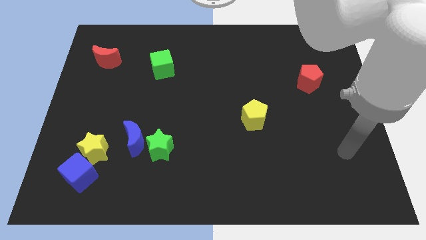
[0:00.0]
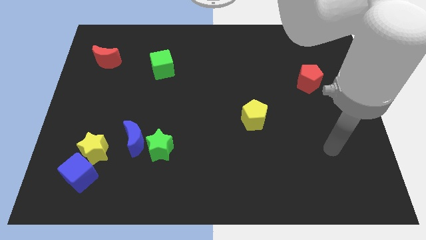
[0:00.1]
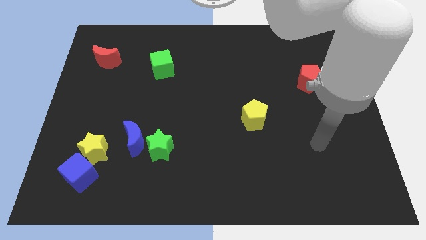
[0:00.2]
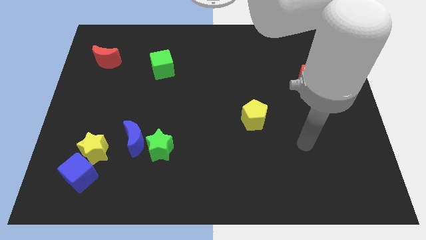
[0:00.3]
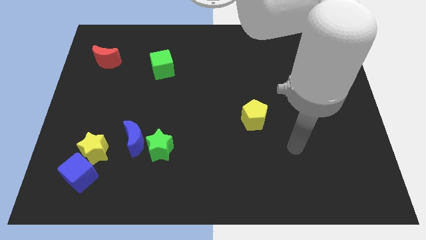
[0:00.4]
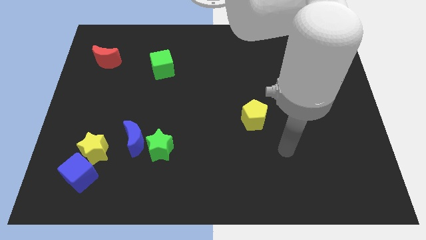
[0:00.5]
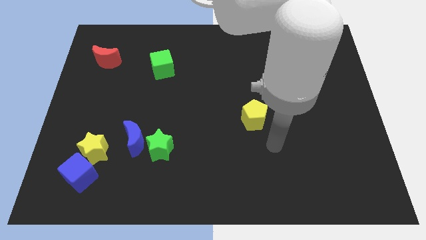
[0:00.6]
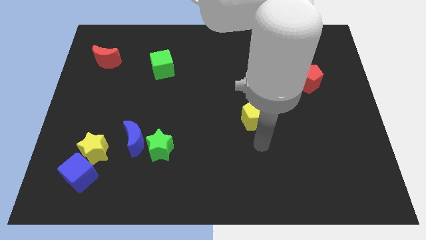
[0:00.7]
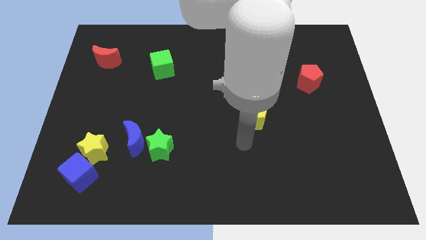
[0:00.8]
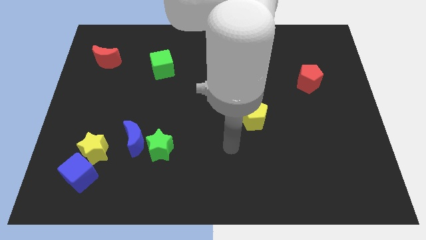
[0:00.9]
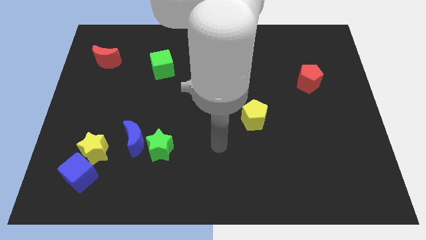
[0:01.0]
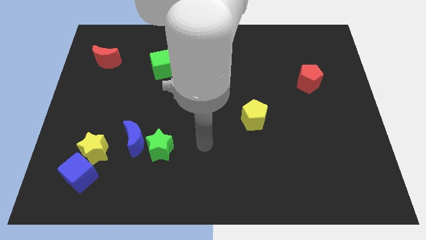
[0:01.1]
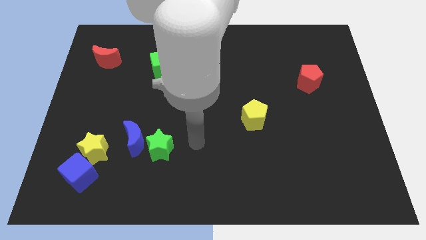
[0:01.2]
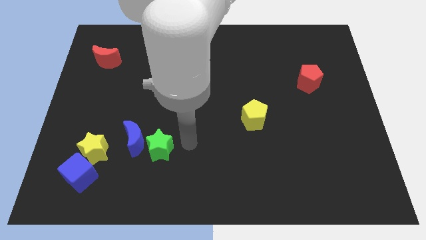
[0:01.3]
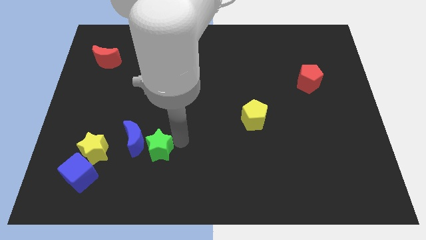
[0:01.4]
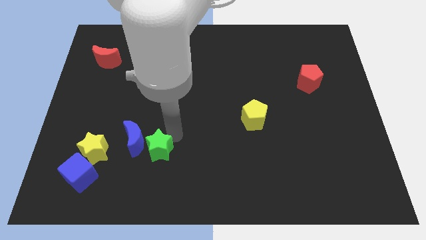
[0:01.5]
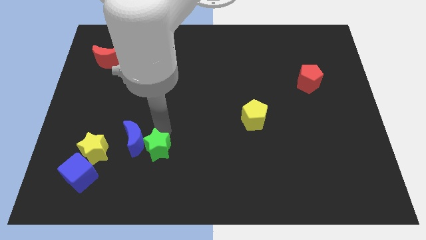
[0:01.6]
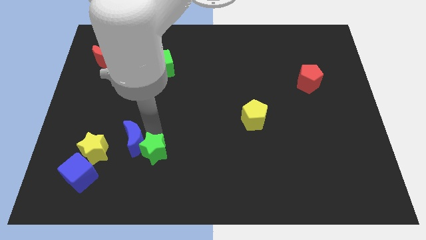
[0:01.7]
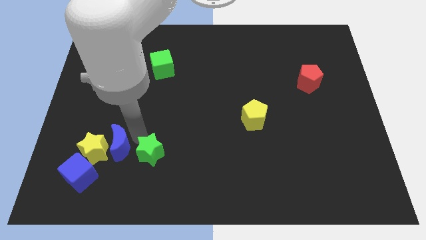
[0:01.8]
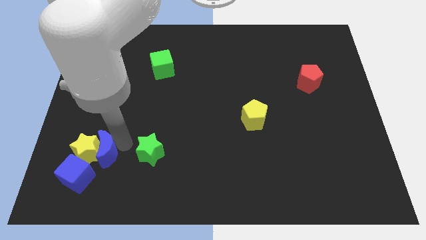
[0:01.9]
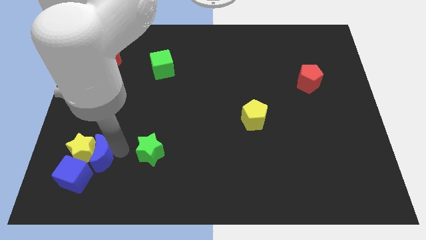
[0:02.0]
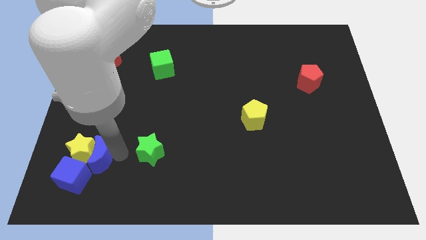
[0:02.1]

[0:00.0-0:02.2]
separate the green star from the blue moon

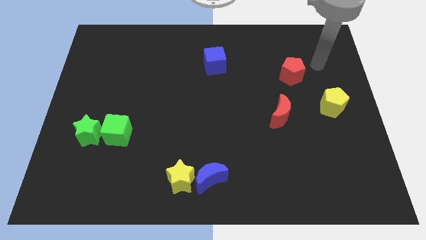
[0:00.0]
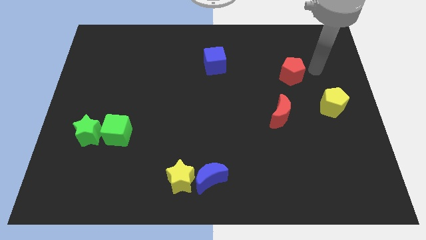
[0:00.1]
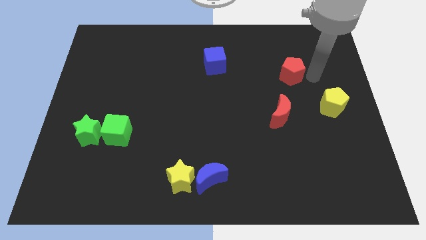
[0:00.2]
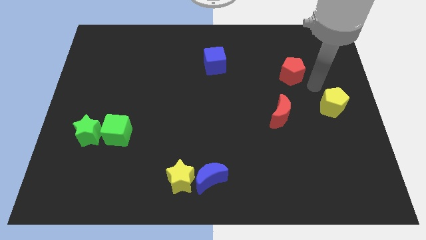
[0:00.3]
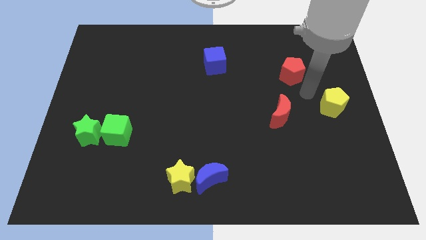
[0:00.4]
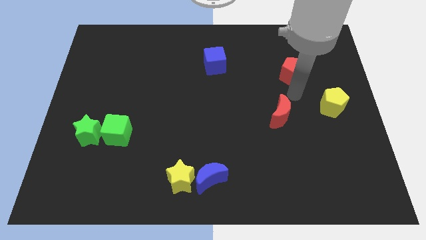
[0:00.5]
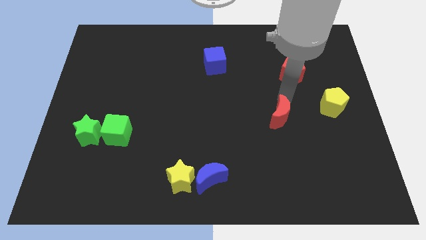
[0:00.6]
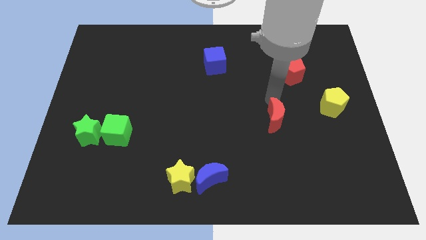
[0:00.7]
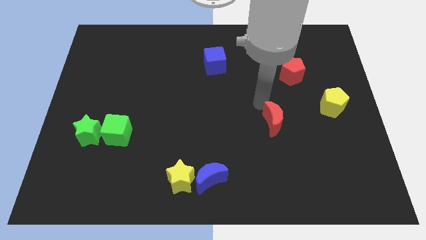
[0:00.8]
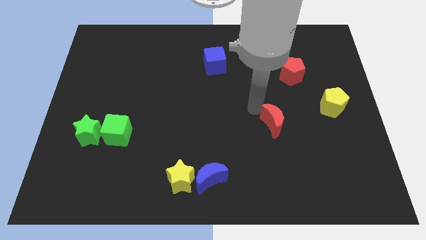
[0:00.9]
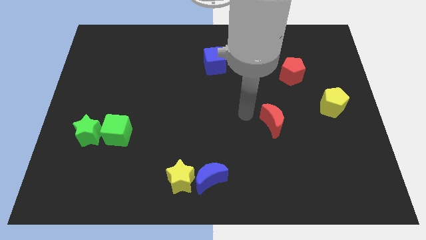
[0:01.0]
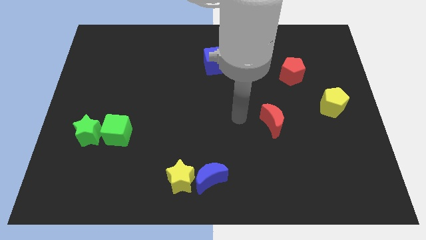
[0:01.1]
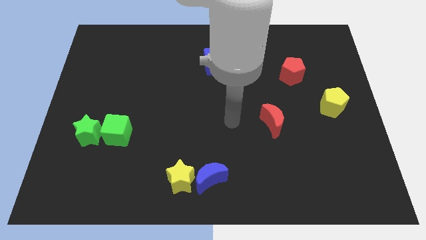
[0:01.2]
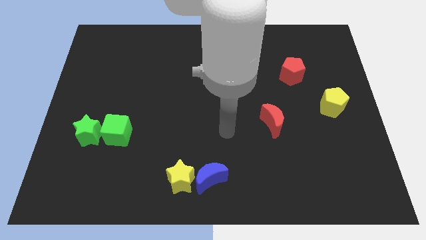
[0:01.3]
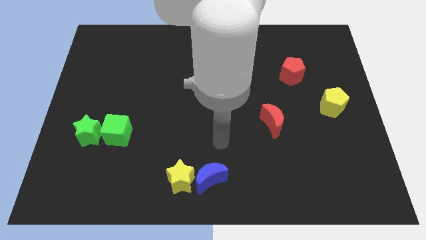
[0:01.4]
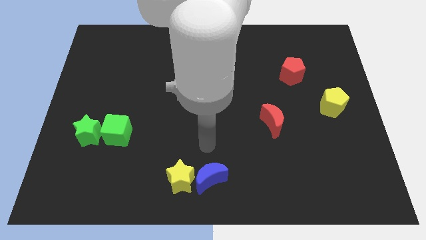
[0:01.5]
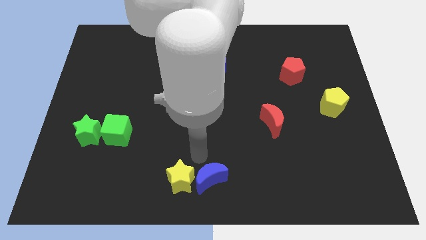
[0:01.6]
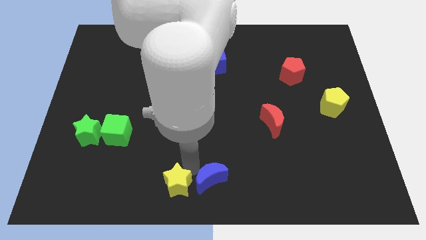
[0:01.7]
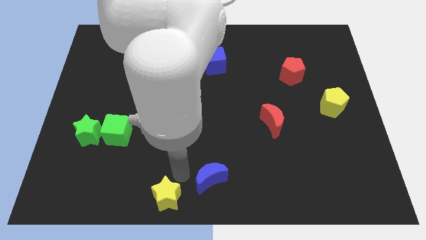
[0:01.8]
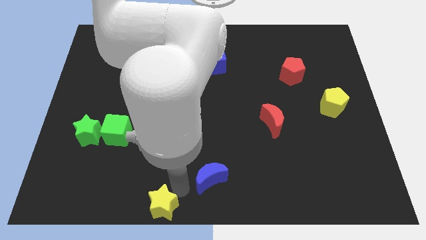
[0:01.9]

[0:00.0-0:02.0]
move the blue moon away from the yellow star

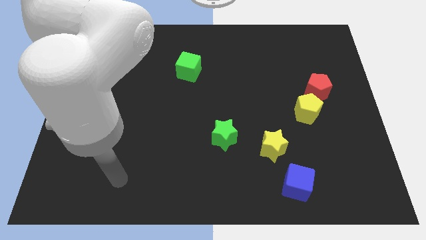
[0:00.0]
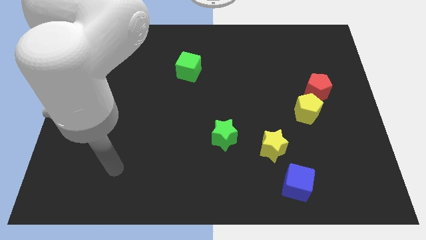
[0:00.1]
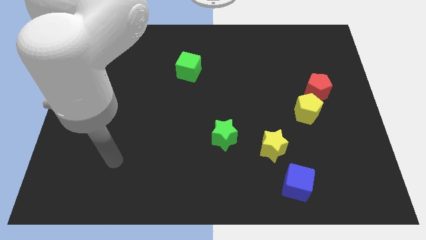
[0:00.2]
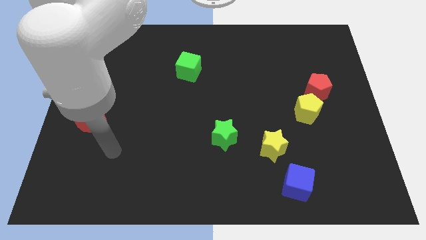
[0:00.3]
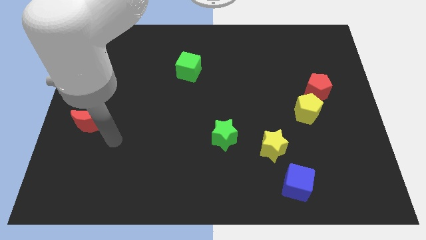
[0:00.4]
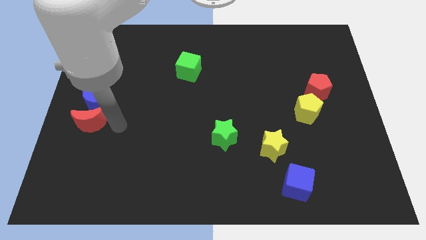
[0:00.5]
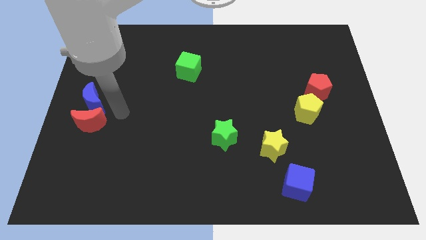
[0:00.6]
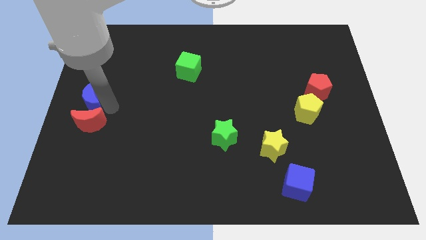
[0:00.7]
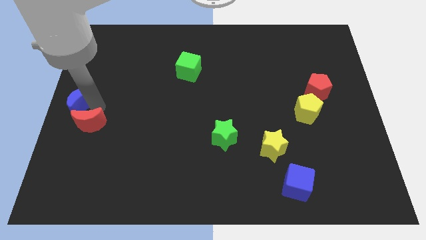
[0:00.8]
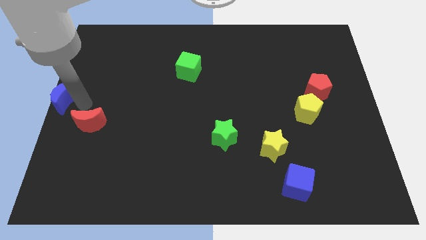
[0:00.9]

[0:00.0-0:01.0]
pull the red moon apart from the blue moon

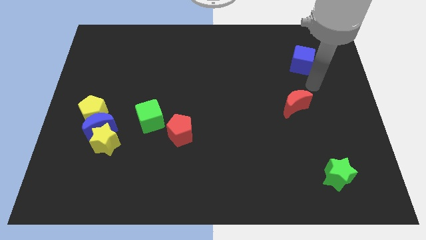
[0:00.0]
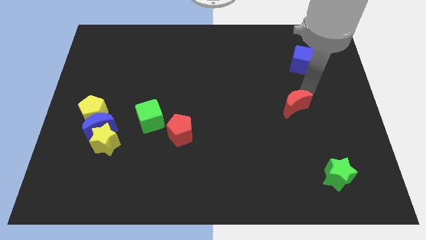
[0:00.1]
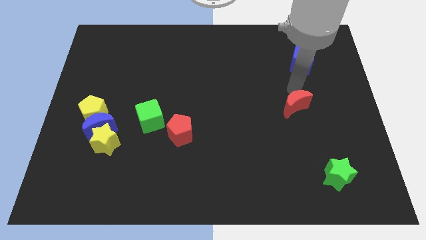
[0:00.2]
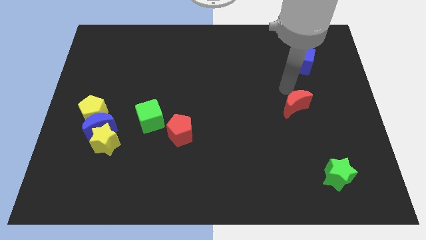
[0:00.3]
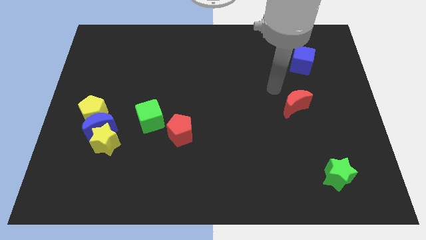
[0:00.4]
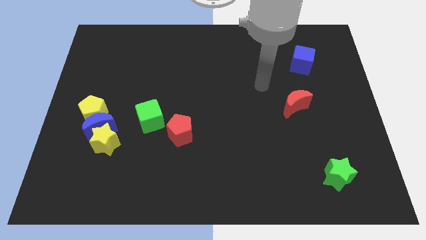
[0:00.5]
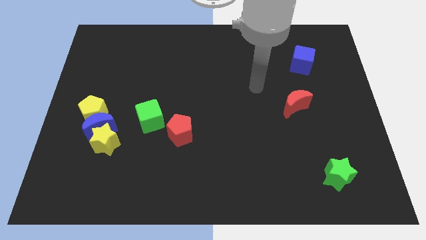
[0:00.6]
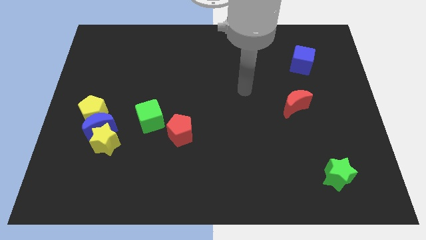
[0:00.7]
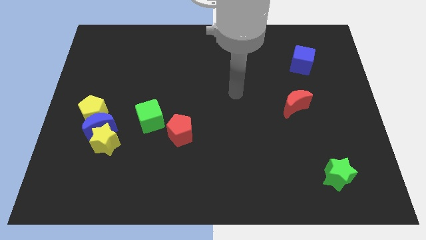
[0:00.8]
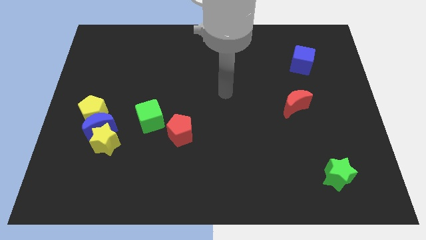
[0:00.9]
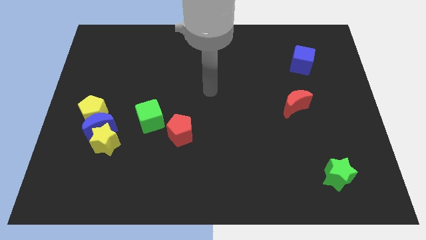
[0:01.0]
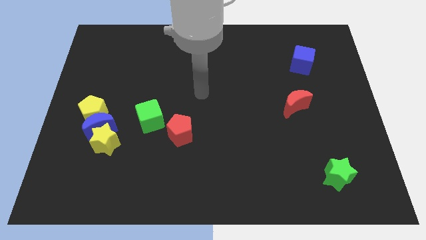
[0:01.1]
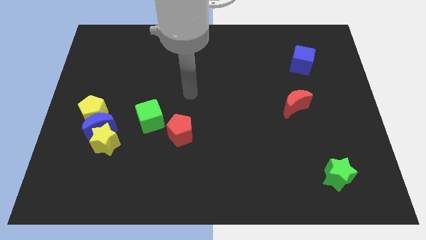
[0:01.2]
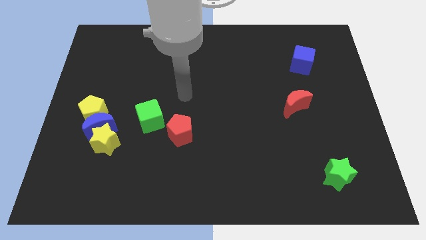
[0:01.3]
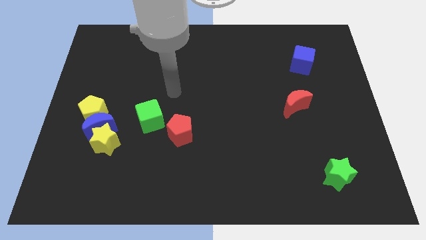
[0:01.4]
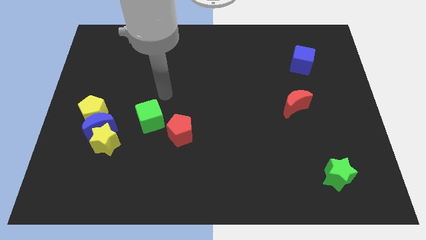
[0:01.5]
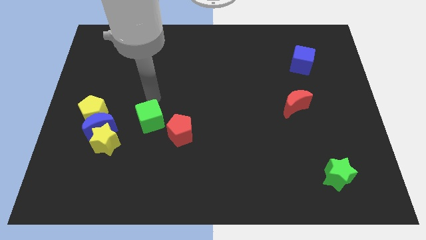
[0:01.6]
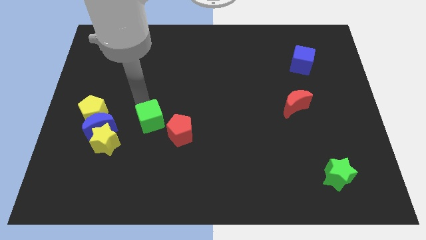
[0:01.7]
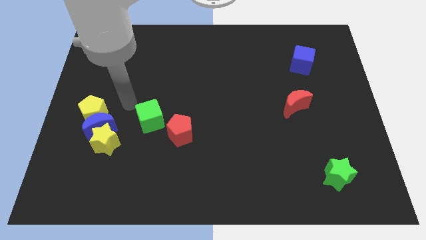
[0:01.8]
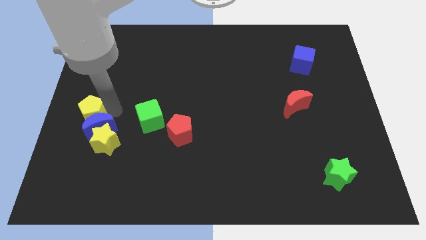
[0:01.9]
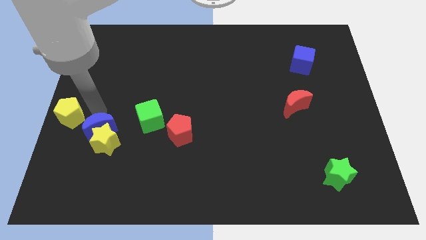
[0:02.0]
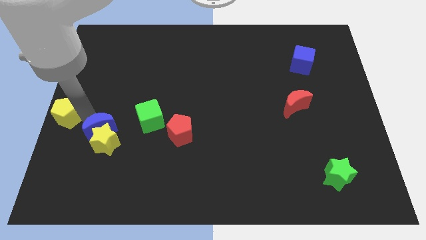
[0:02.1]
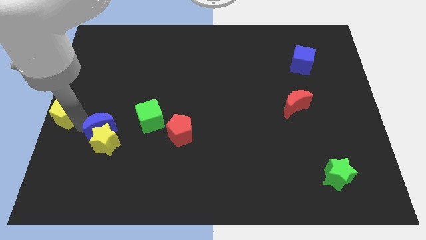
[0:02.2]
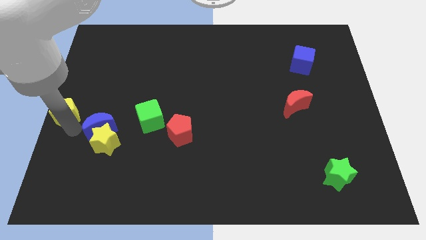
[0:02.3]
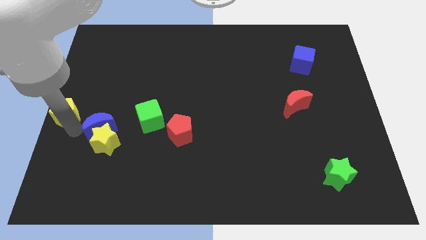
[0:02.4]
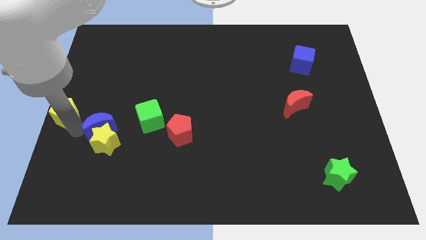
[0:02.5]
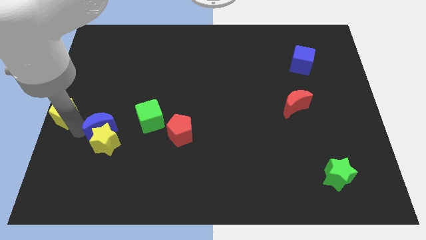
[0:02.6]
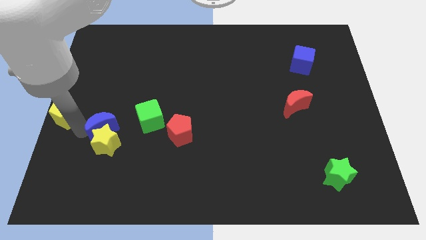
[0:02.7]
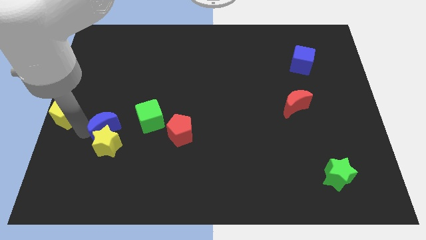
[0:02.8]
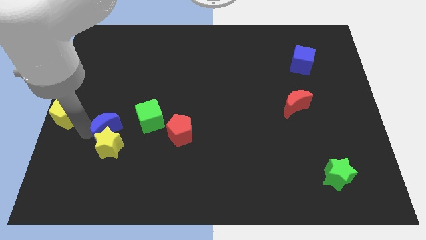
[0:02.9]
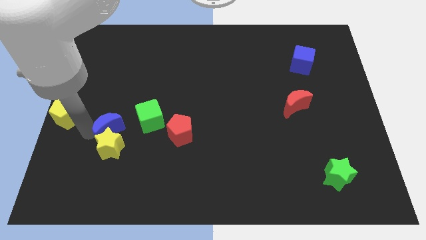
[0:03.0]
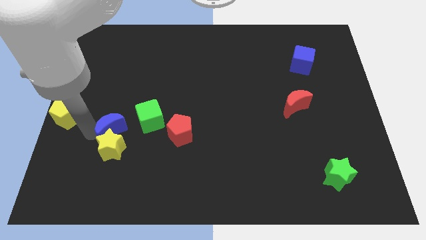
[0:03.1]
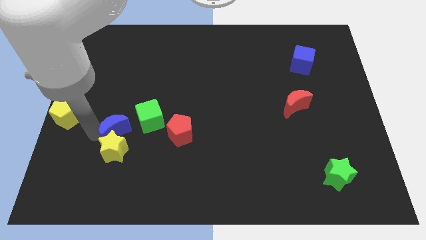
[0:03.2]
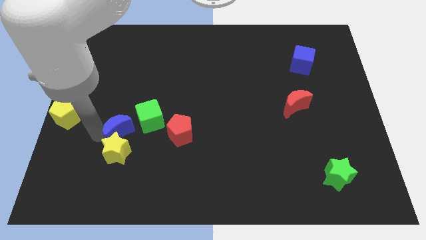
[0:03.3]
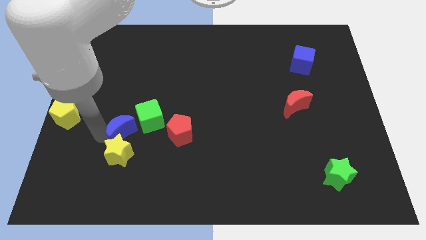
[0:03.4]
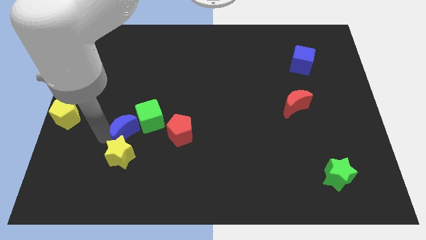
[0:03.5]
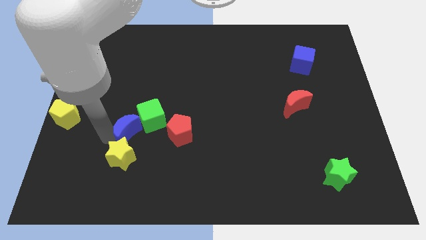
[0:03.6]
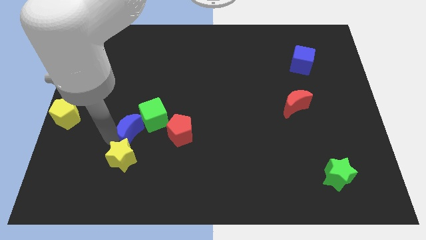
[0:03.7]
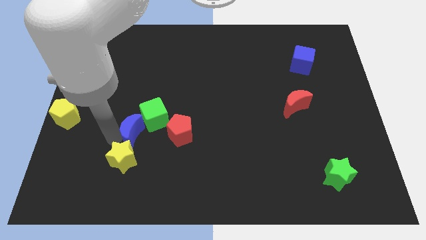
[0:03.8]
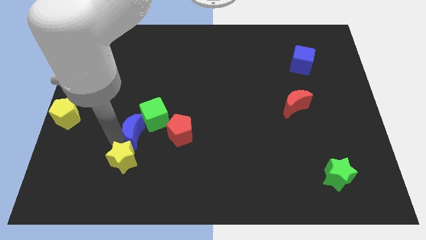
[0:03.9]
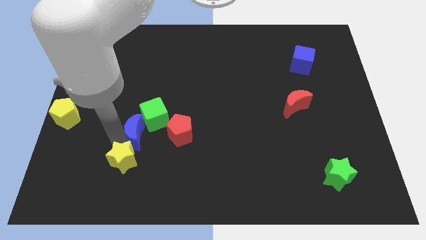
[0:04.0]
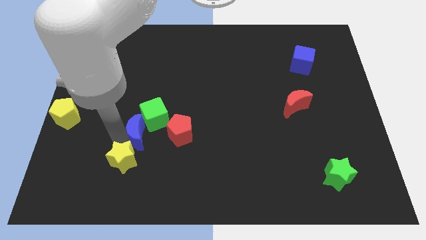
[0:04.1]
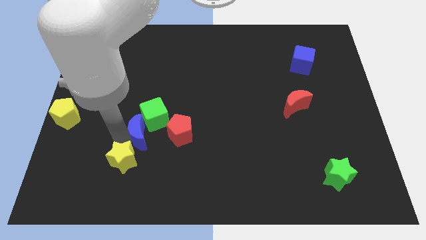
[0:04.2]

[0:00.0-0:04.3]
pull the blue moon apart from the yellow star and yellow pentagon
